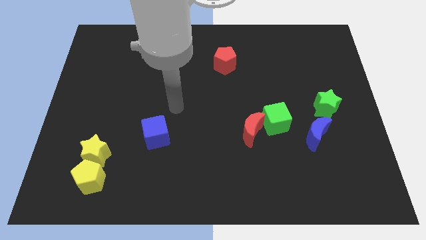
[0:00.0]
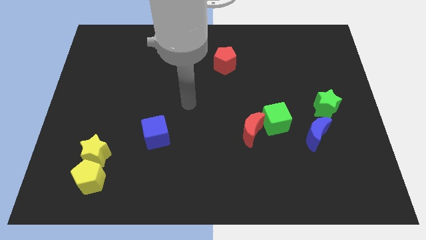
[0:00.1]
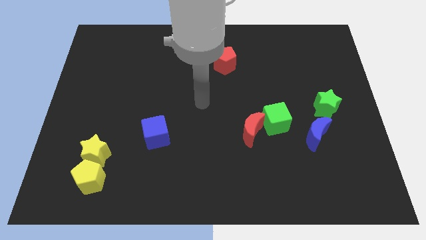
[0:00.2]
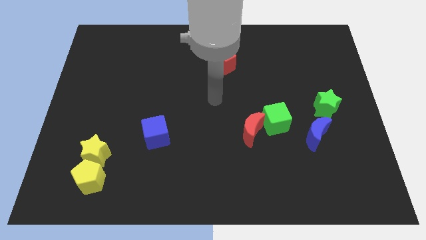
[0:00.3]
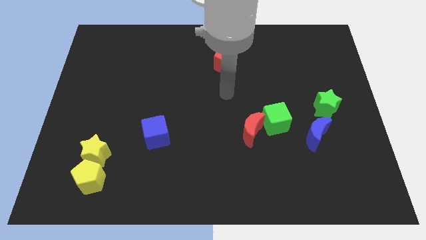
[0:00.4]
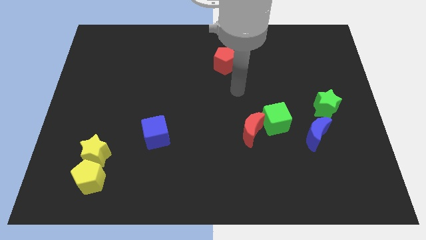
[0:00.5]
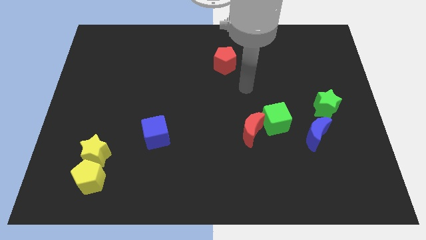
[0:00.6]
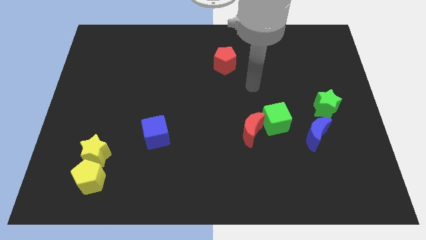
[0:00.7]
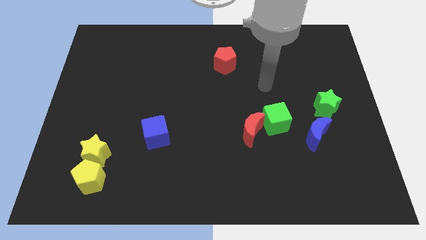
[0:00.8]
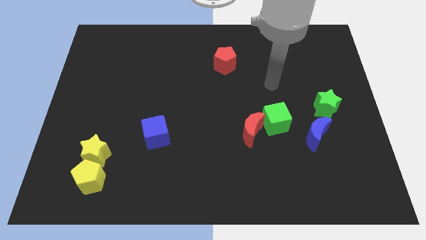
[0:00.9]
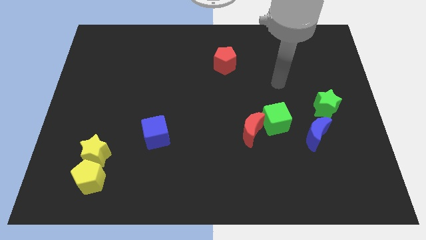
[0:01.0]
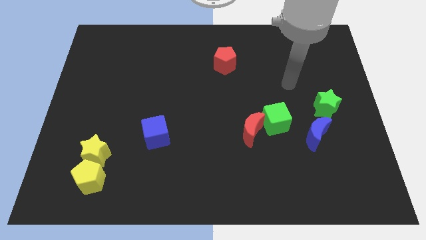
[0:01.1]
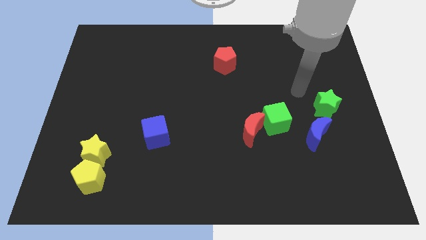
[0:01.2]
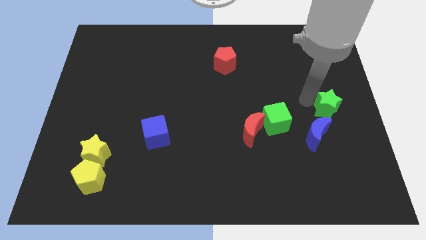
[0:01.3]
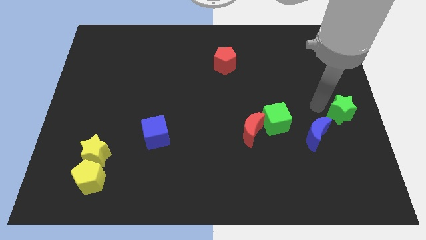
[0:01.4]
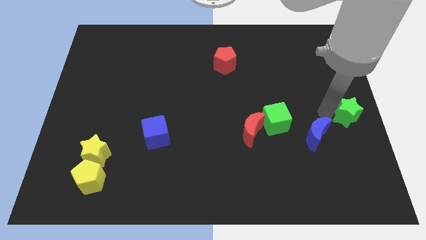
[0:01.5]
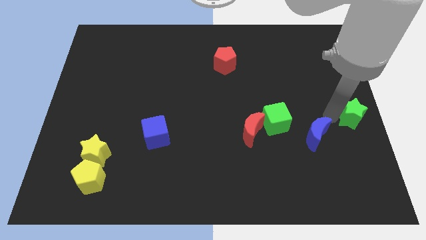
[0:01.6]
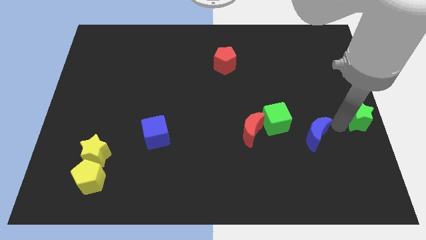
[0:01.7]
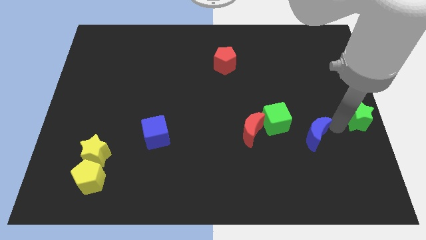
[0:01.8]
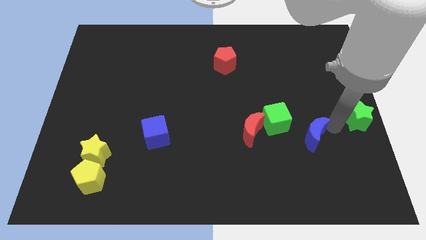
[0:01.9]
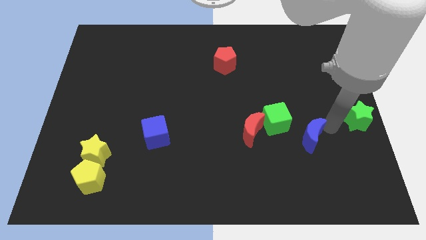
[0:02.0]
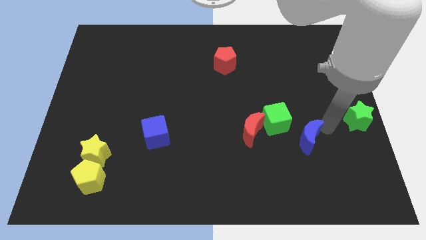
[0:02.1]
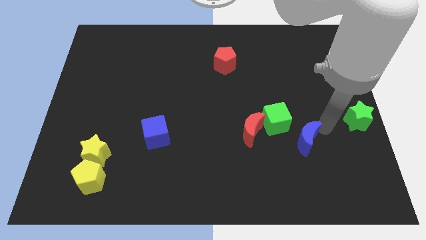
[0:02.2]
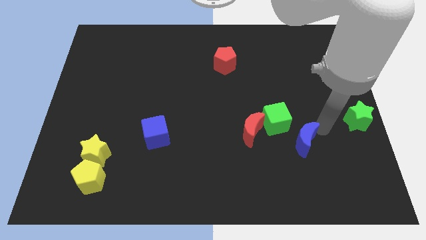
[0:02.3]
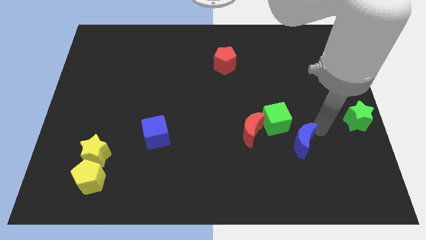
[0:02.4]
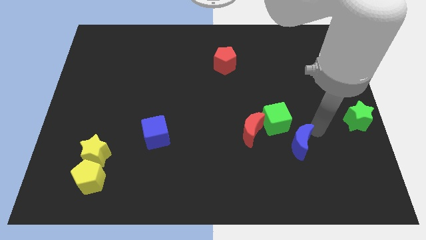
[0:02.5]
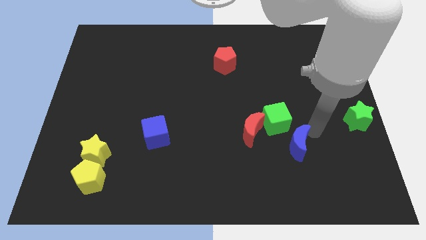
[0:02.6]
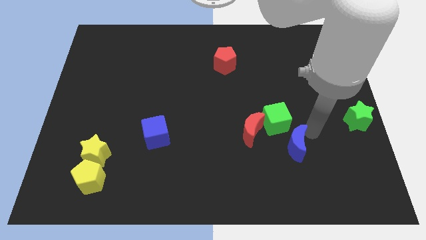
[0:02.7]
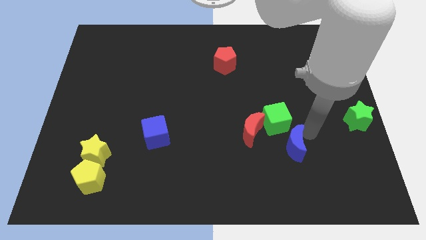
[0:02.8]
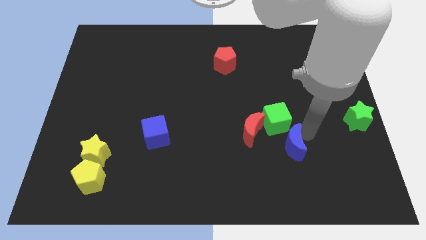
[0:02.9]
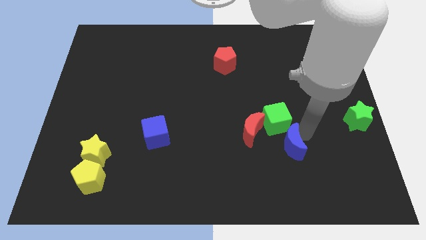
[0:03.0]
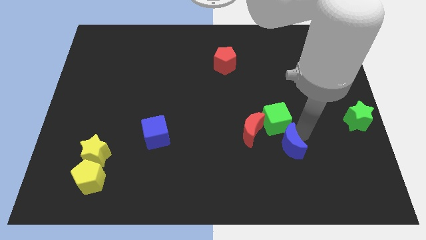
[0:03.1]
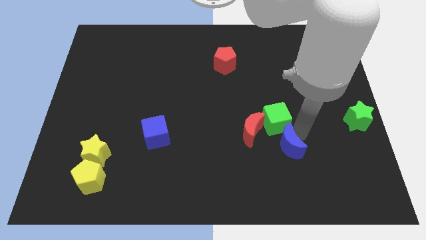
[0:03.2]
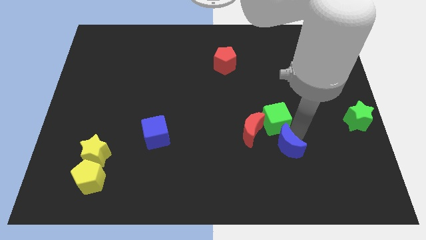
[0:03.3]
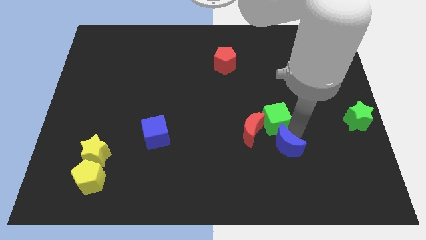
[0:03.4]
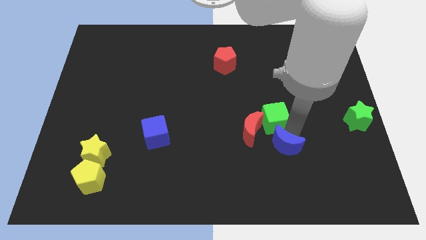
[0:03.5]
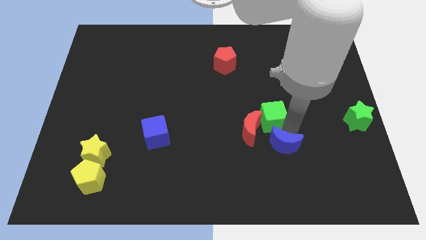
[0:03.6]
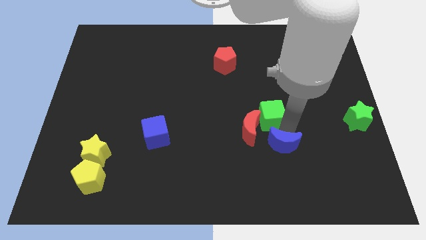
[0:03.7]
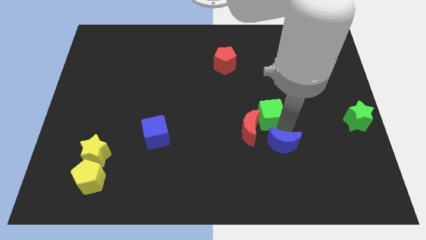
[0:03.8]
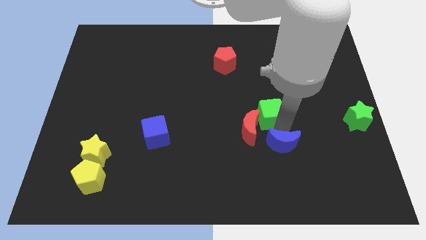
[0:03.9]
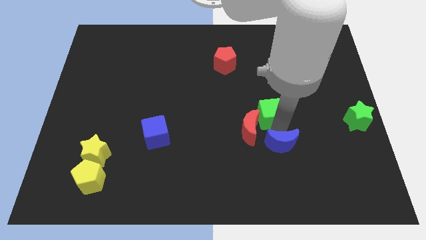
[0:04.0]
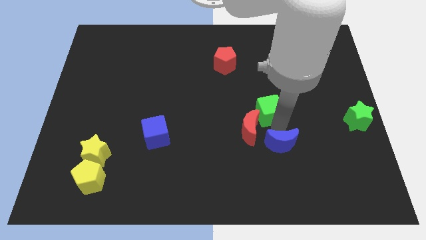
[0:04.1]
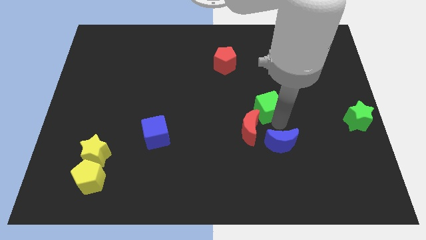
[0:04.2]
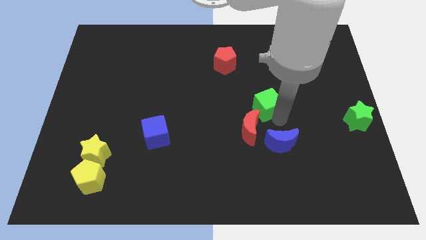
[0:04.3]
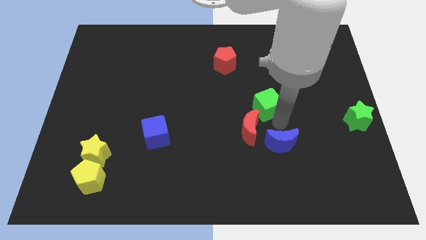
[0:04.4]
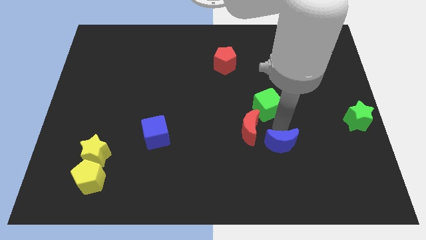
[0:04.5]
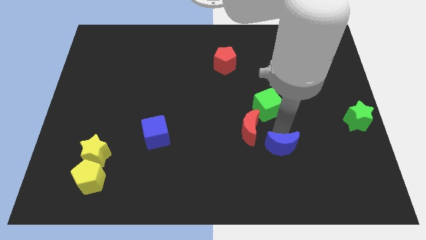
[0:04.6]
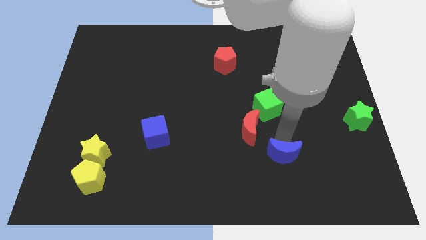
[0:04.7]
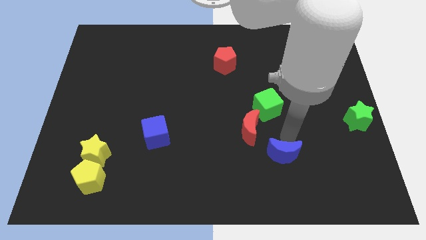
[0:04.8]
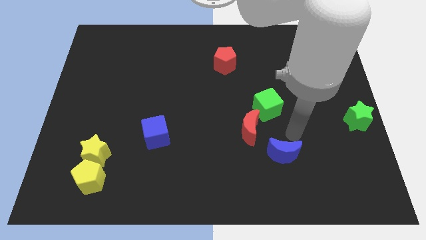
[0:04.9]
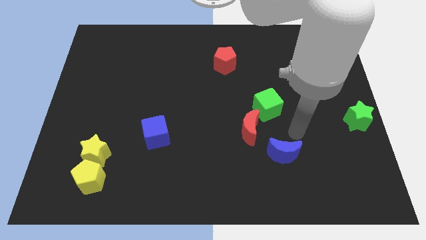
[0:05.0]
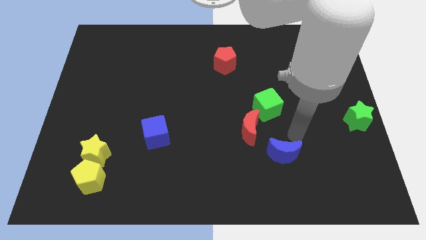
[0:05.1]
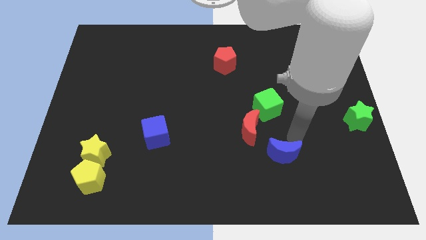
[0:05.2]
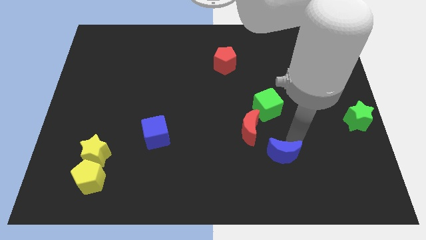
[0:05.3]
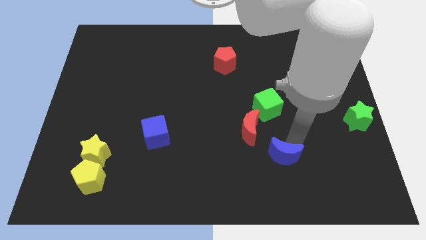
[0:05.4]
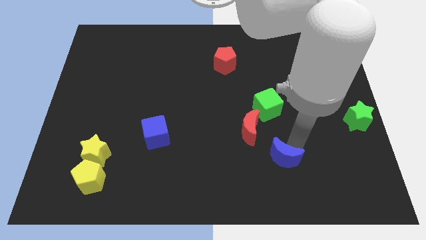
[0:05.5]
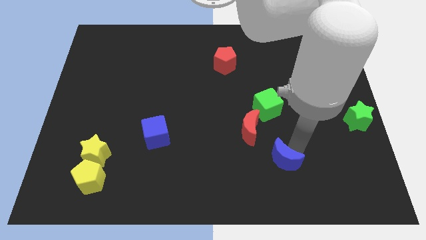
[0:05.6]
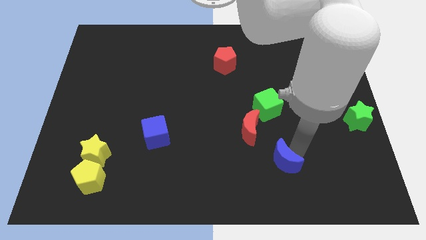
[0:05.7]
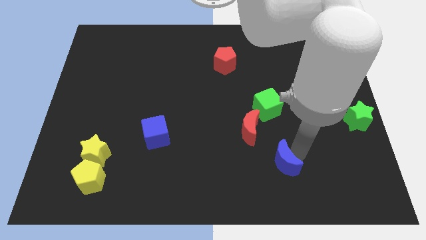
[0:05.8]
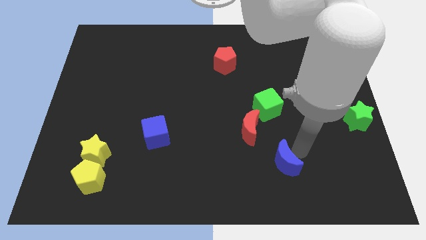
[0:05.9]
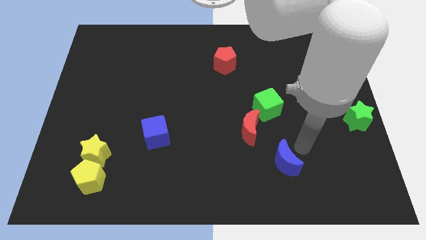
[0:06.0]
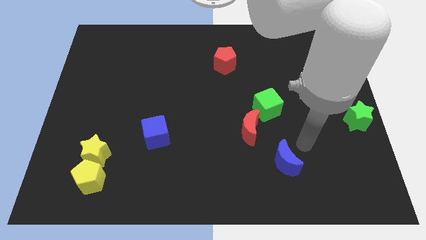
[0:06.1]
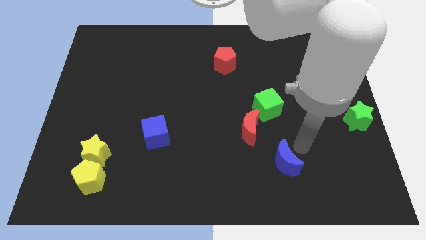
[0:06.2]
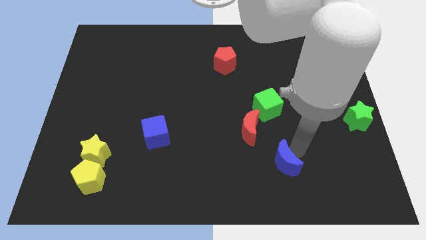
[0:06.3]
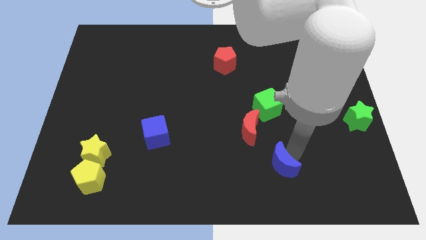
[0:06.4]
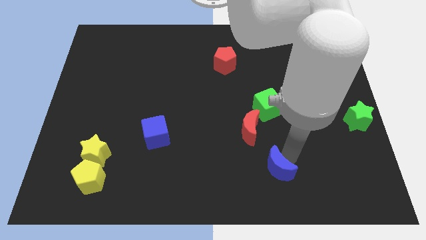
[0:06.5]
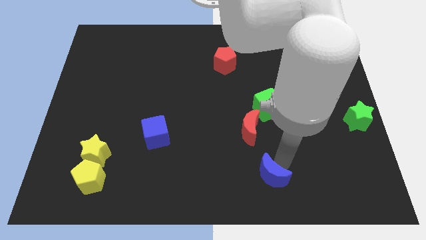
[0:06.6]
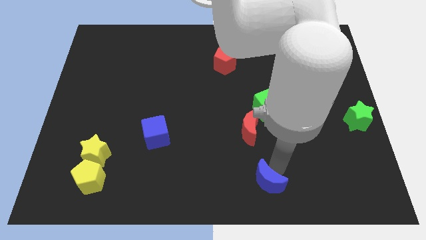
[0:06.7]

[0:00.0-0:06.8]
put the blue moon to the bottom side
